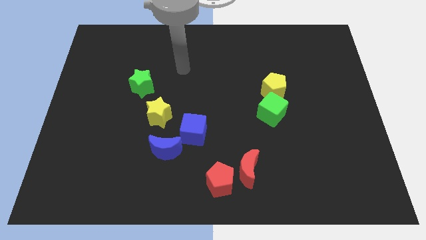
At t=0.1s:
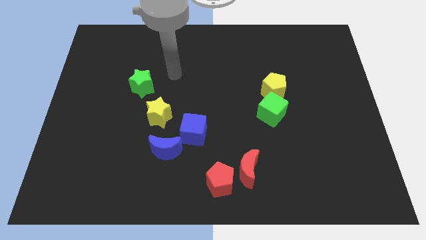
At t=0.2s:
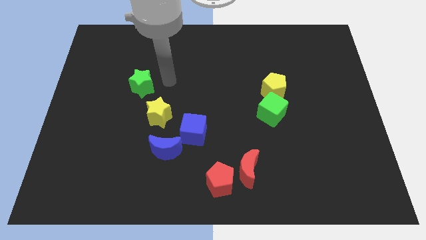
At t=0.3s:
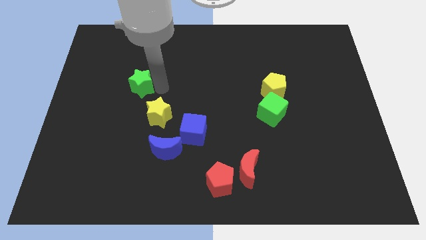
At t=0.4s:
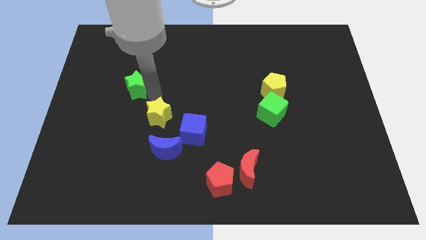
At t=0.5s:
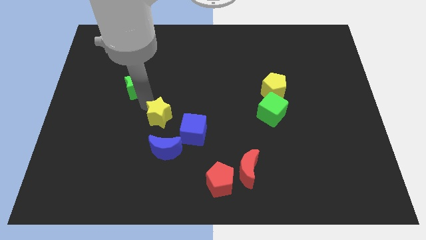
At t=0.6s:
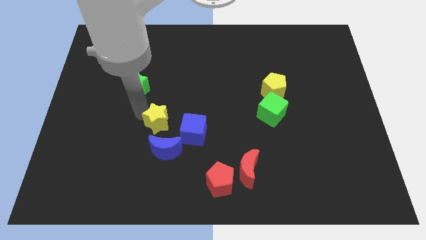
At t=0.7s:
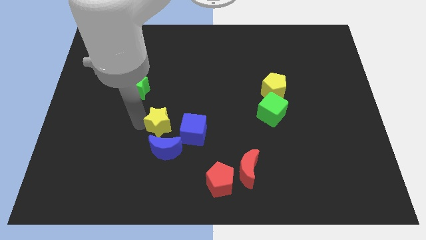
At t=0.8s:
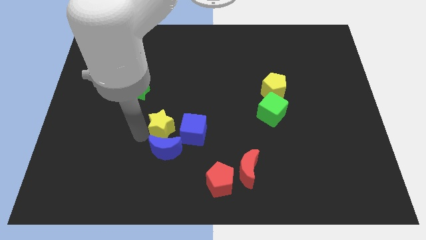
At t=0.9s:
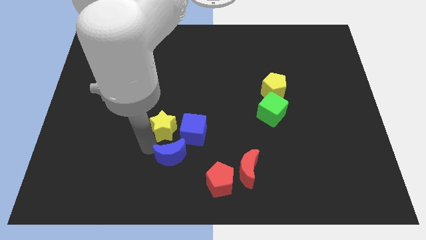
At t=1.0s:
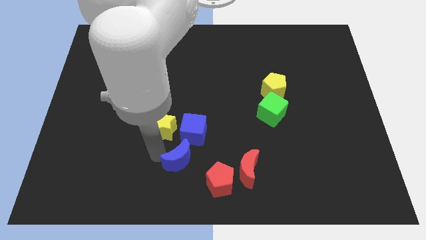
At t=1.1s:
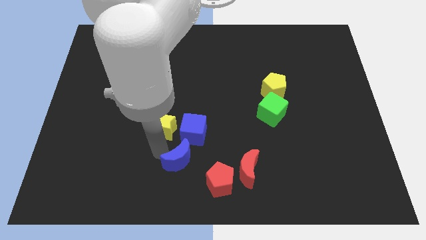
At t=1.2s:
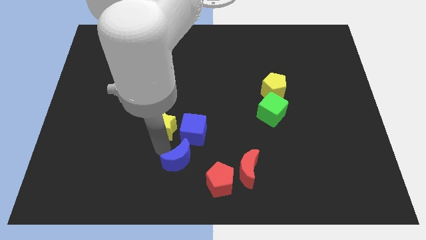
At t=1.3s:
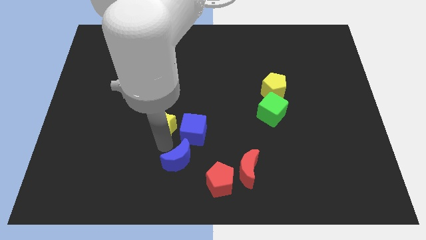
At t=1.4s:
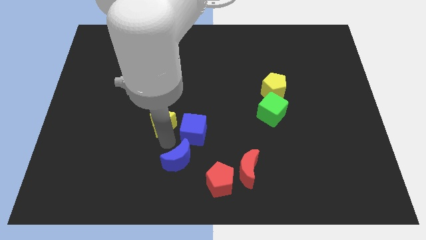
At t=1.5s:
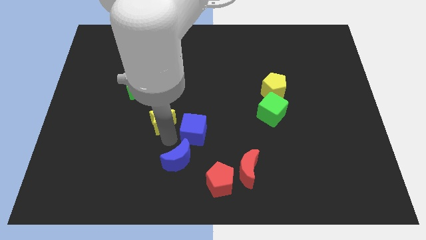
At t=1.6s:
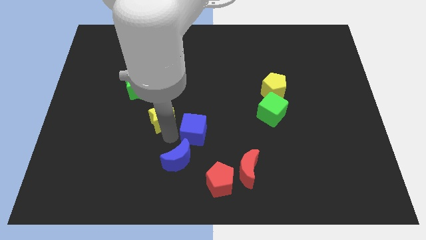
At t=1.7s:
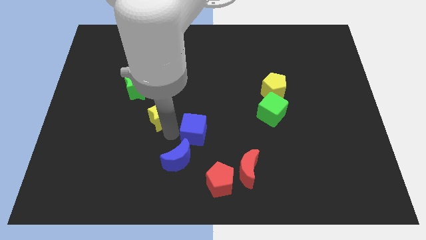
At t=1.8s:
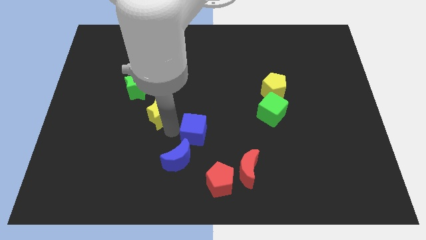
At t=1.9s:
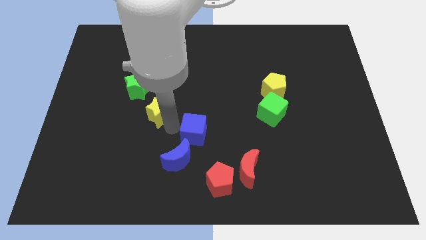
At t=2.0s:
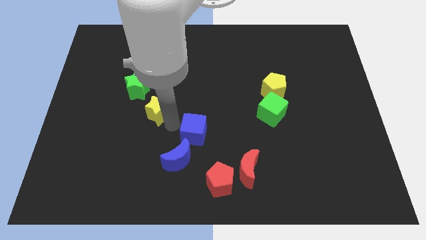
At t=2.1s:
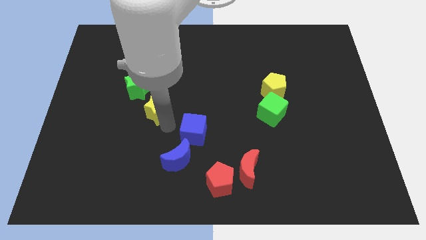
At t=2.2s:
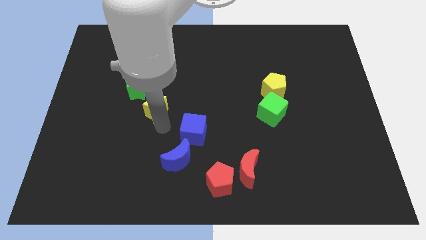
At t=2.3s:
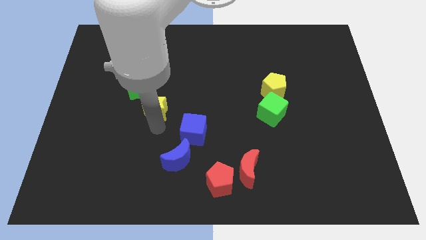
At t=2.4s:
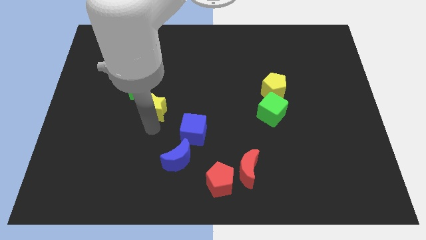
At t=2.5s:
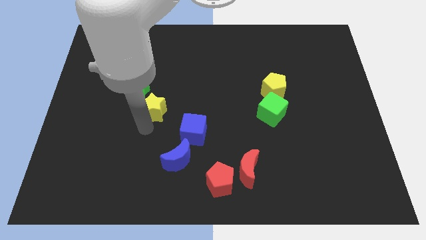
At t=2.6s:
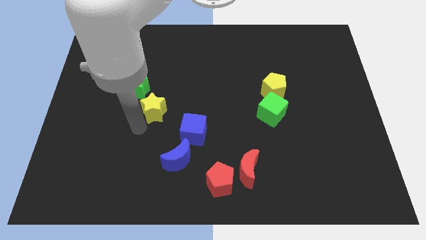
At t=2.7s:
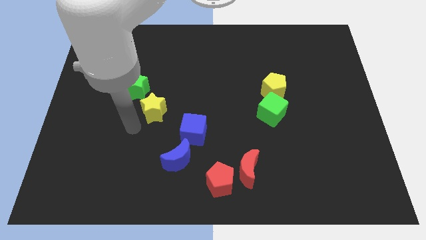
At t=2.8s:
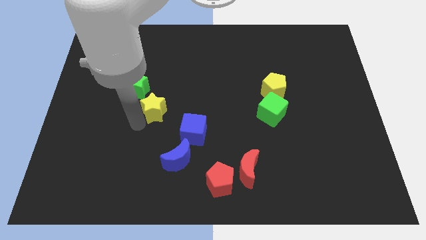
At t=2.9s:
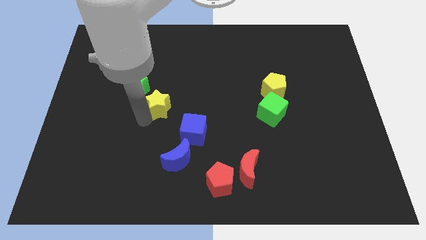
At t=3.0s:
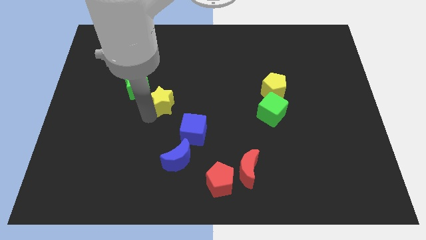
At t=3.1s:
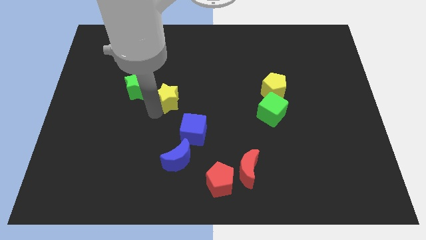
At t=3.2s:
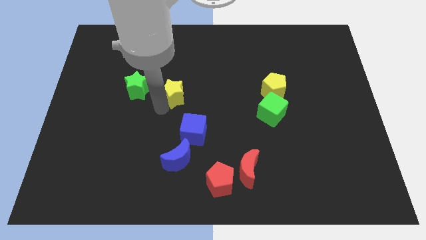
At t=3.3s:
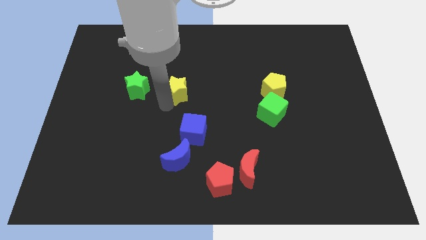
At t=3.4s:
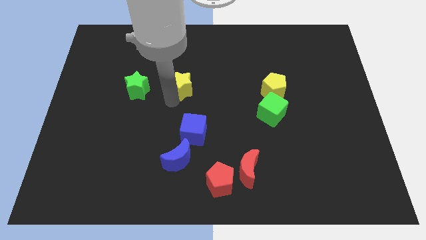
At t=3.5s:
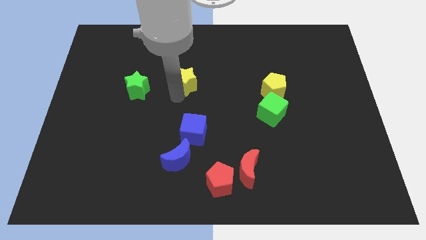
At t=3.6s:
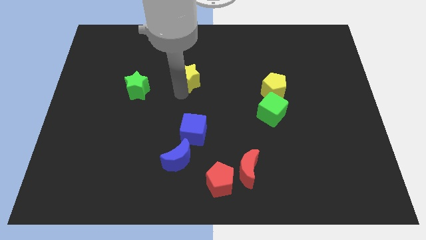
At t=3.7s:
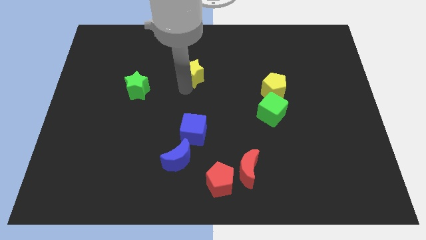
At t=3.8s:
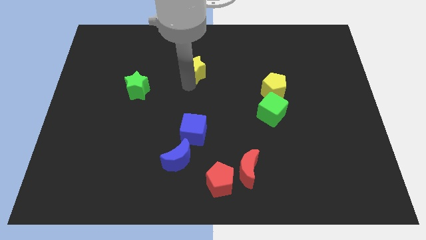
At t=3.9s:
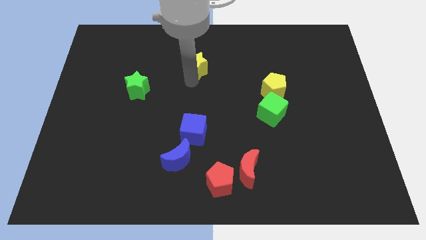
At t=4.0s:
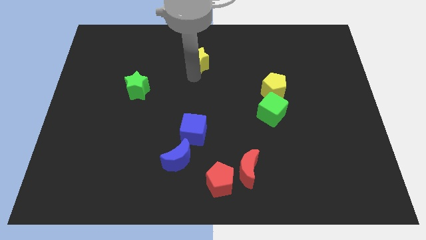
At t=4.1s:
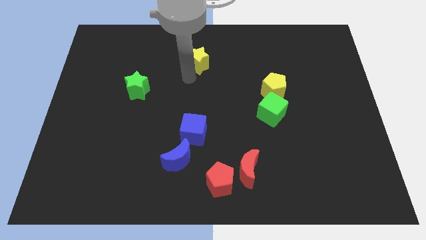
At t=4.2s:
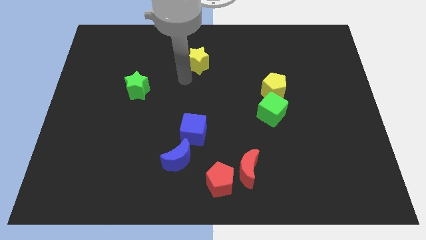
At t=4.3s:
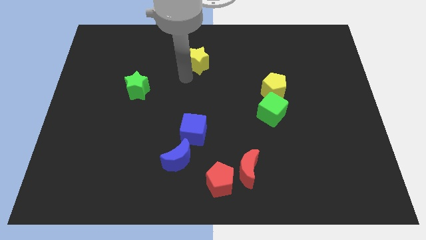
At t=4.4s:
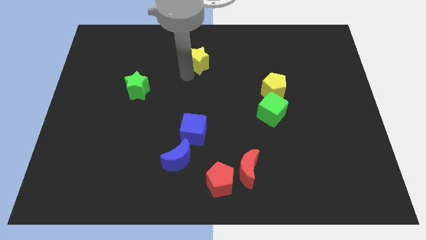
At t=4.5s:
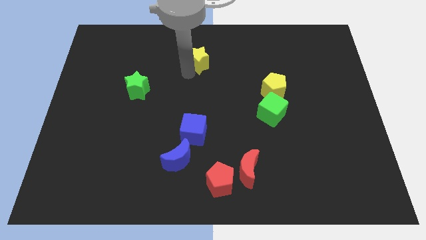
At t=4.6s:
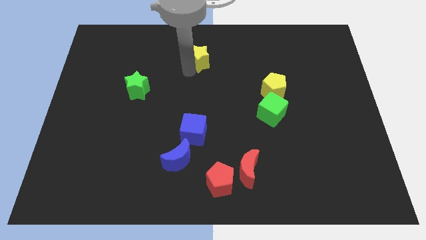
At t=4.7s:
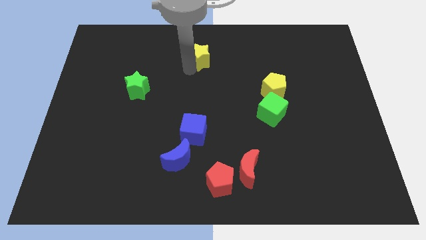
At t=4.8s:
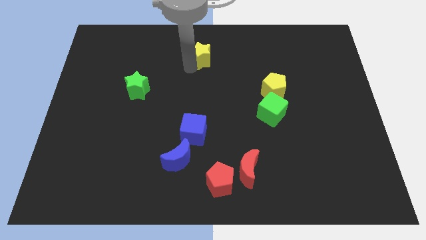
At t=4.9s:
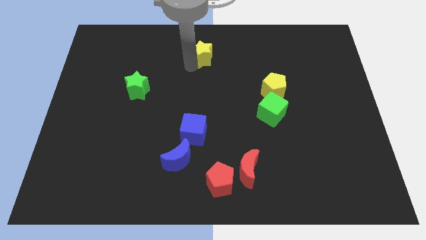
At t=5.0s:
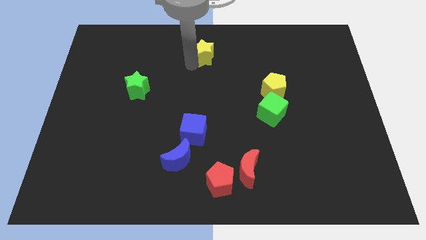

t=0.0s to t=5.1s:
slide the yellow star to the top side

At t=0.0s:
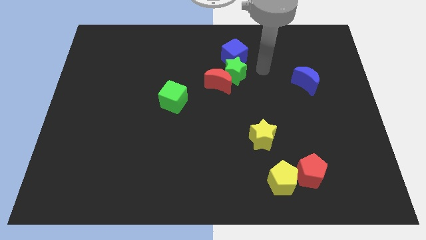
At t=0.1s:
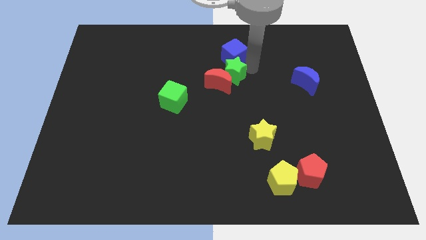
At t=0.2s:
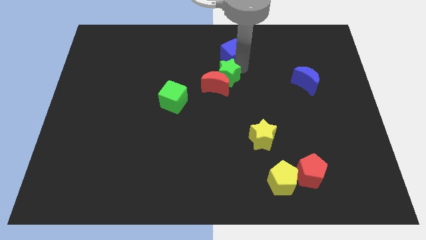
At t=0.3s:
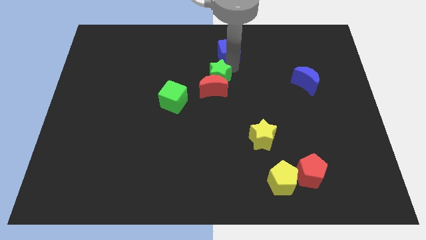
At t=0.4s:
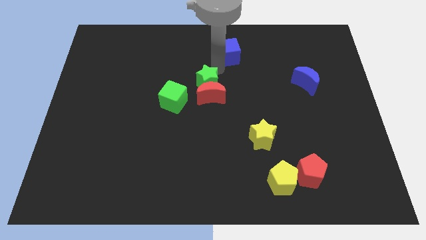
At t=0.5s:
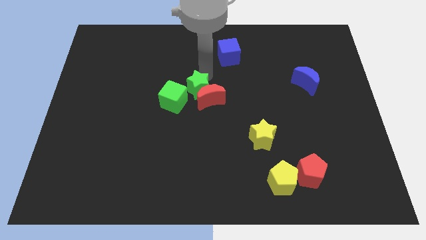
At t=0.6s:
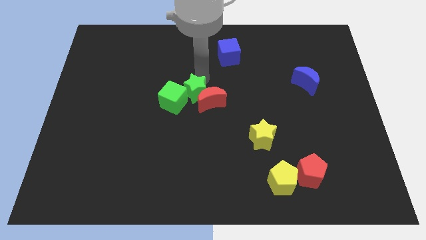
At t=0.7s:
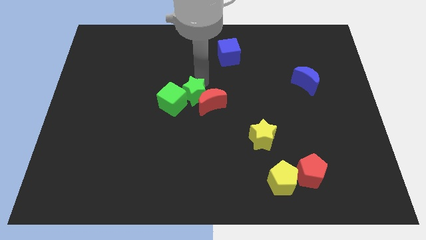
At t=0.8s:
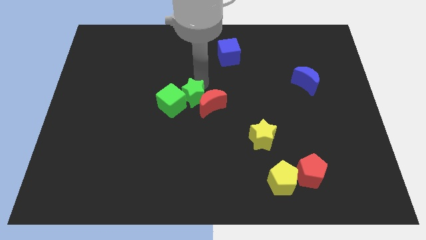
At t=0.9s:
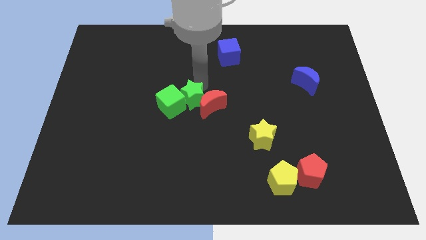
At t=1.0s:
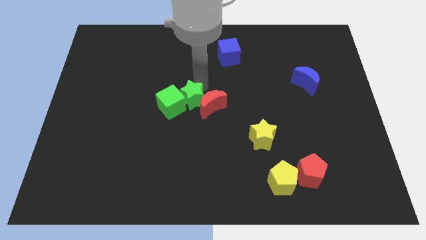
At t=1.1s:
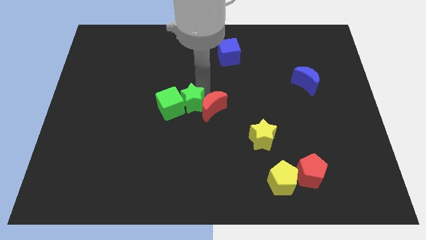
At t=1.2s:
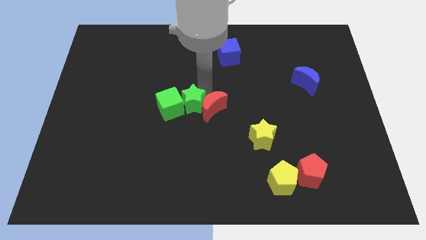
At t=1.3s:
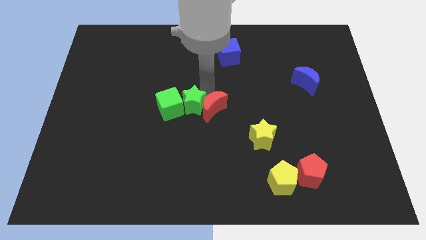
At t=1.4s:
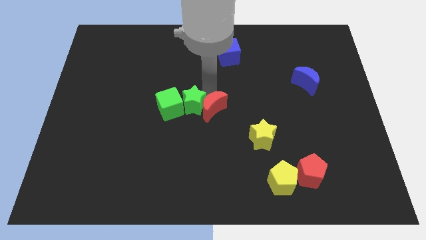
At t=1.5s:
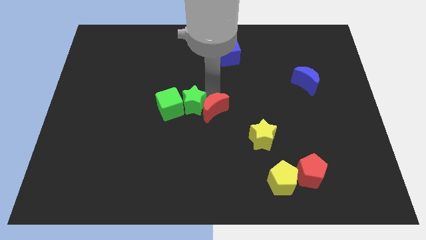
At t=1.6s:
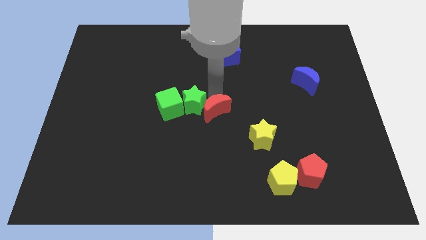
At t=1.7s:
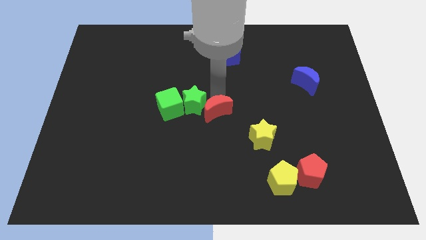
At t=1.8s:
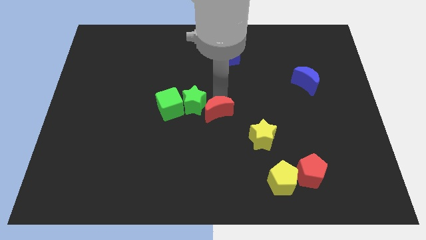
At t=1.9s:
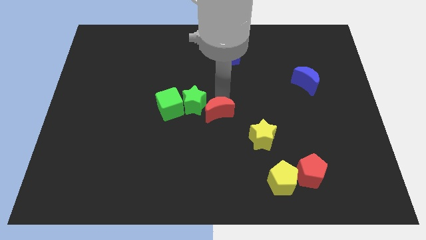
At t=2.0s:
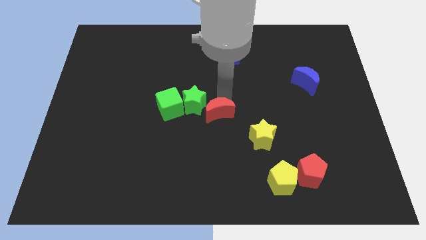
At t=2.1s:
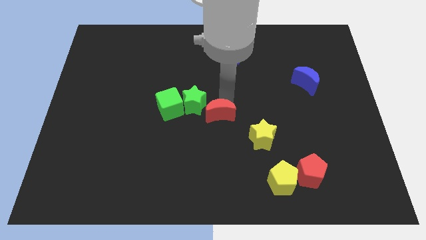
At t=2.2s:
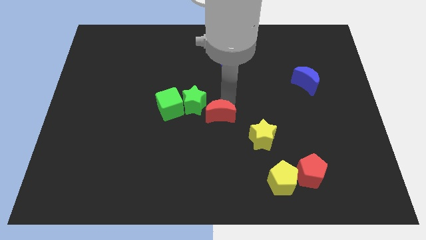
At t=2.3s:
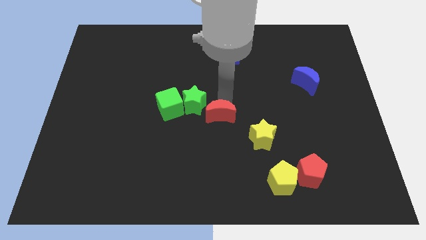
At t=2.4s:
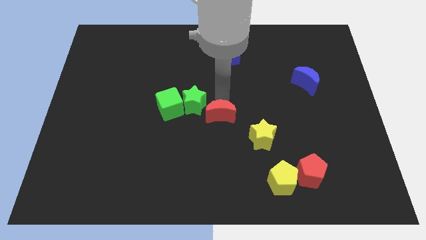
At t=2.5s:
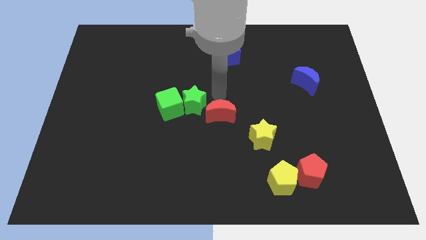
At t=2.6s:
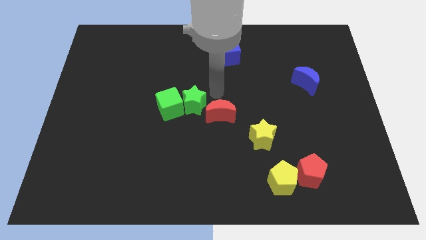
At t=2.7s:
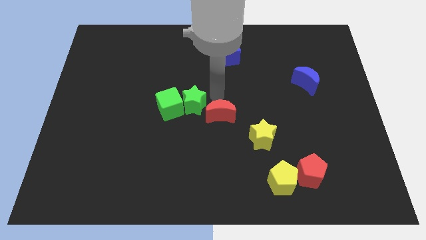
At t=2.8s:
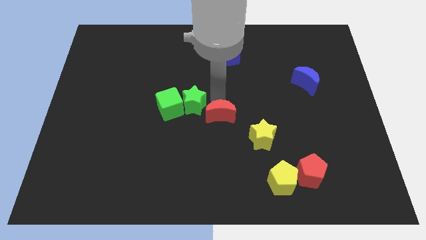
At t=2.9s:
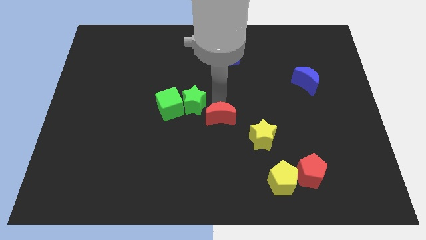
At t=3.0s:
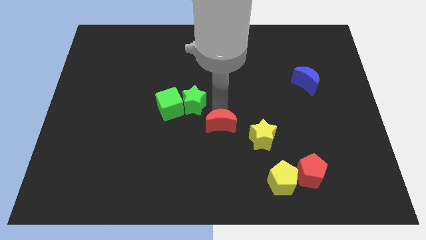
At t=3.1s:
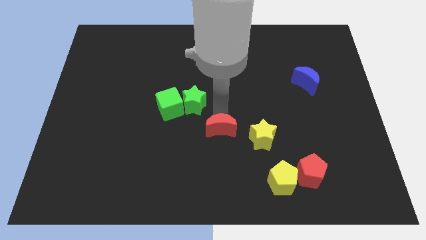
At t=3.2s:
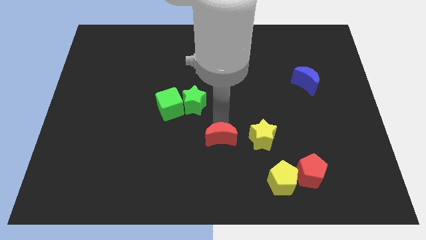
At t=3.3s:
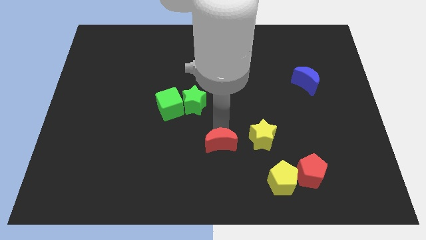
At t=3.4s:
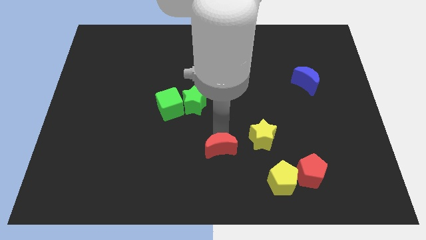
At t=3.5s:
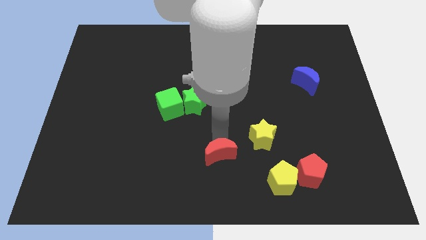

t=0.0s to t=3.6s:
push the red moon to the bottom side
